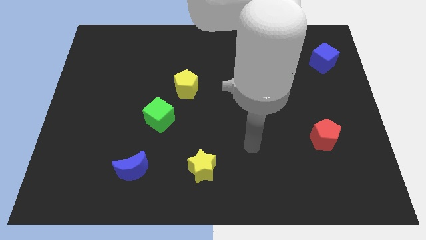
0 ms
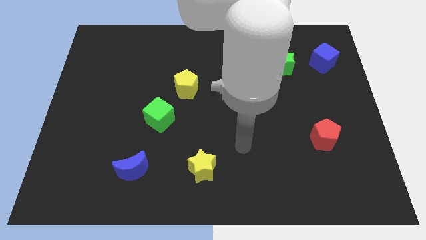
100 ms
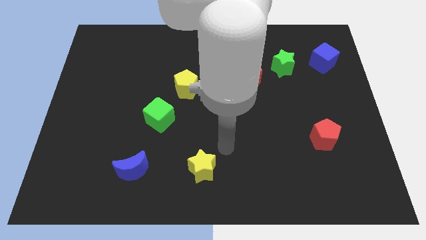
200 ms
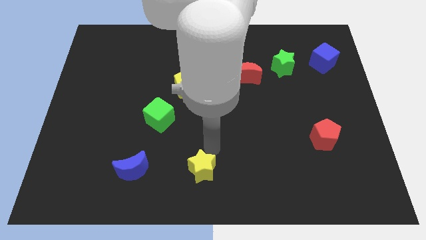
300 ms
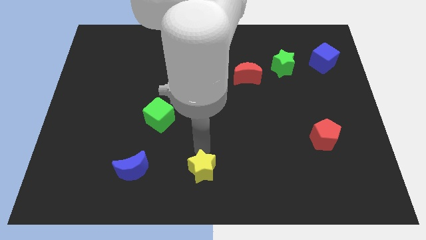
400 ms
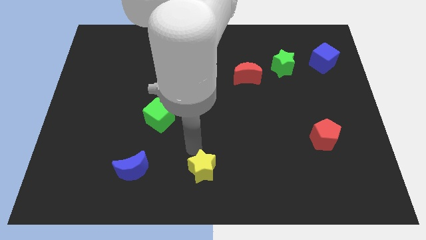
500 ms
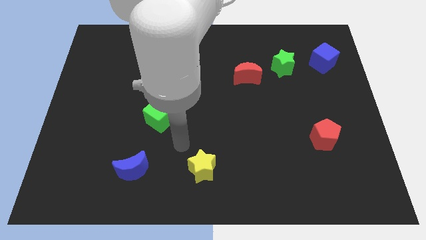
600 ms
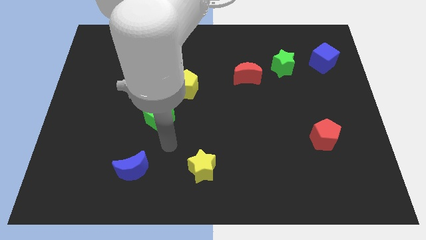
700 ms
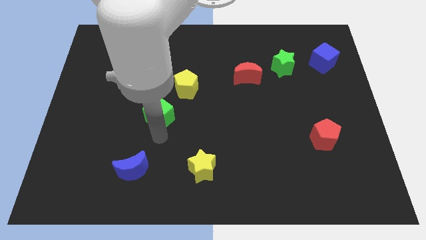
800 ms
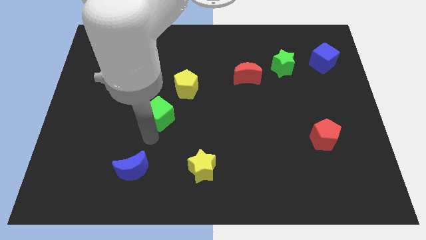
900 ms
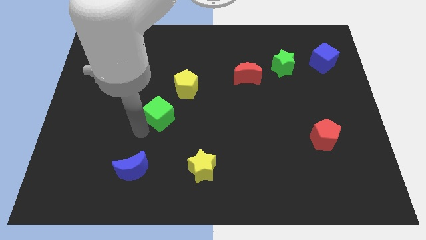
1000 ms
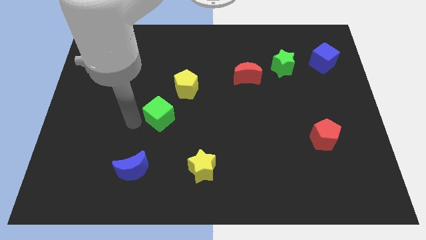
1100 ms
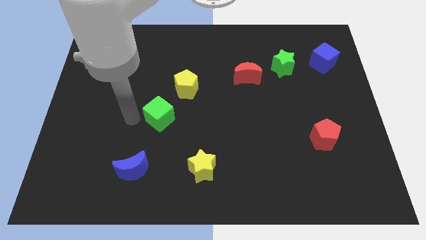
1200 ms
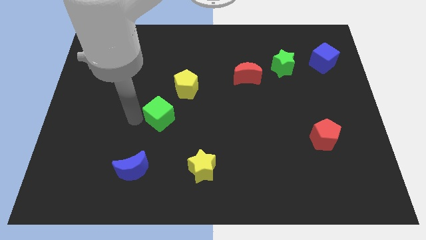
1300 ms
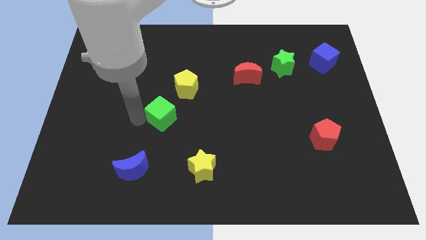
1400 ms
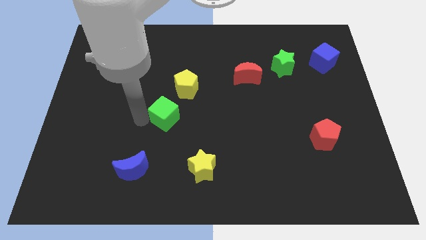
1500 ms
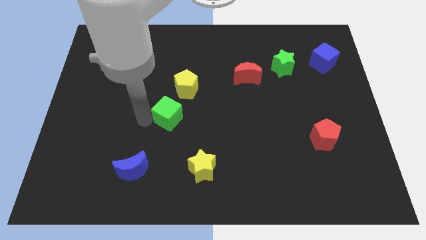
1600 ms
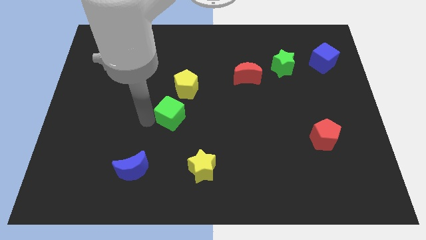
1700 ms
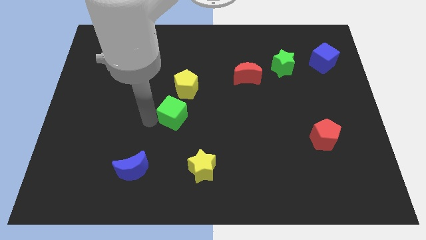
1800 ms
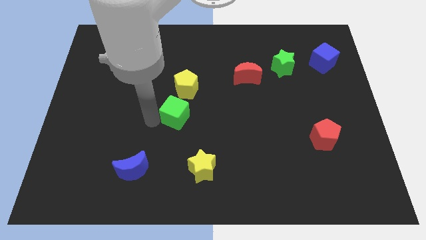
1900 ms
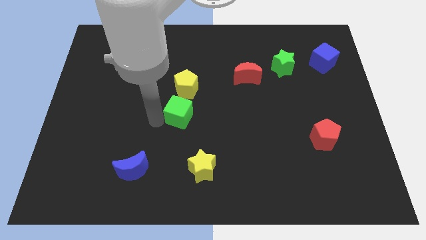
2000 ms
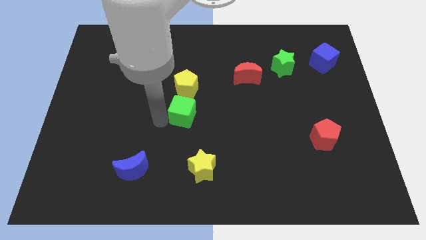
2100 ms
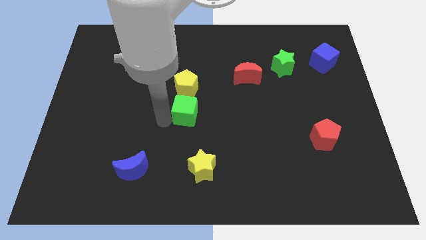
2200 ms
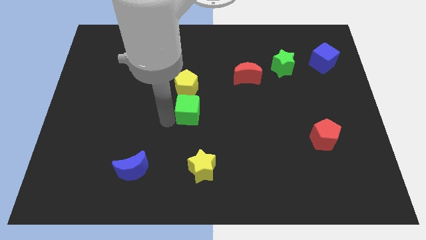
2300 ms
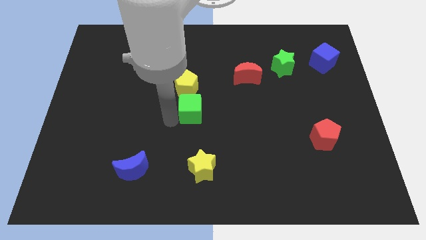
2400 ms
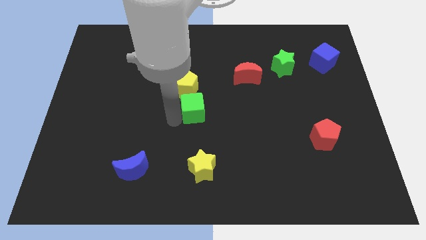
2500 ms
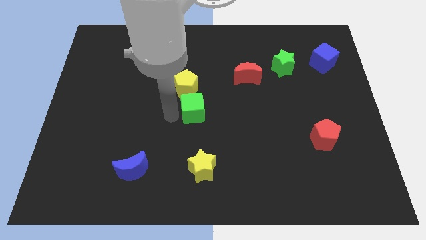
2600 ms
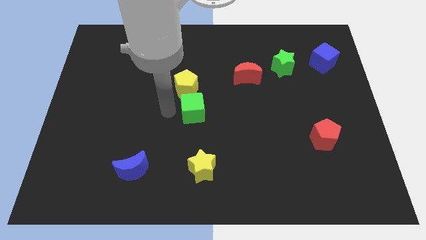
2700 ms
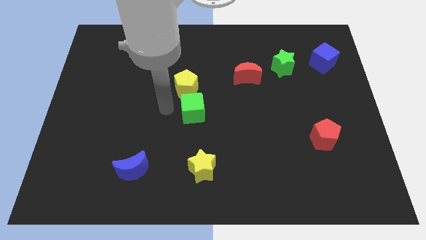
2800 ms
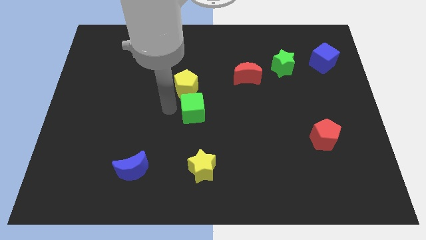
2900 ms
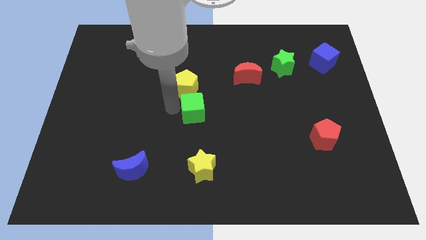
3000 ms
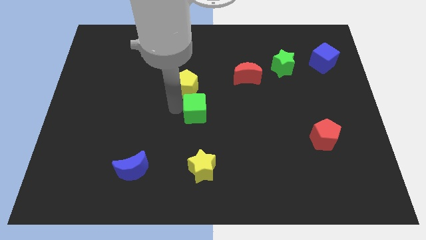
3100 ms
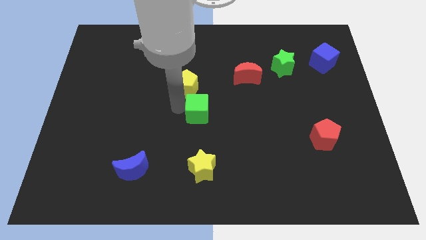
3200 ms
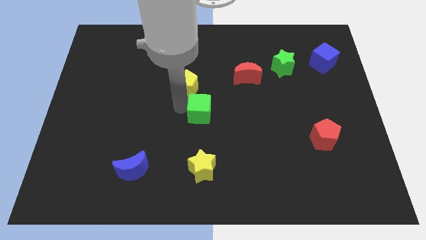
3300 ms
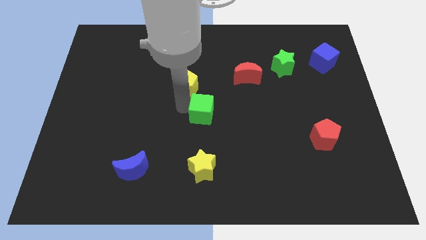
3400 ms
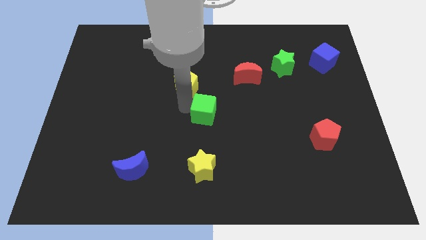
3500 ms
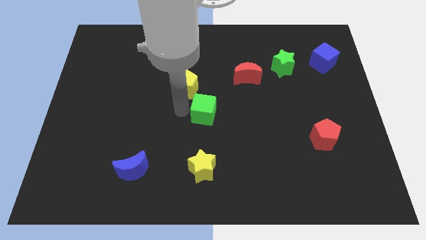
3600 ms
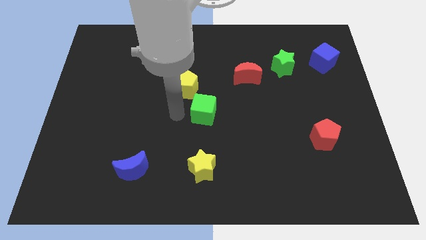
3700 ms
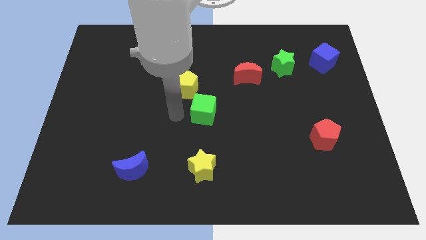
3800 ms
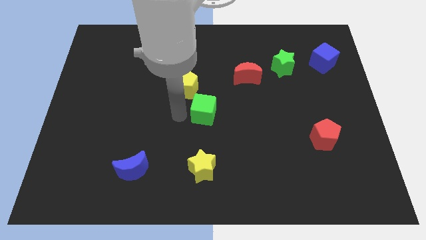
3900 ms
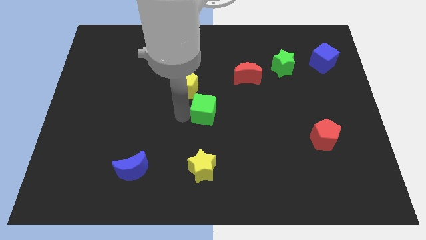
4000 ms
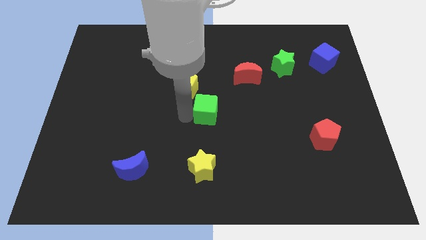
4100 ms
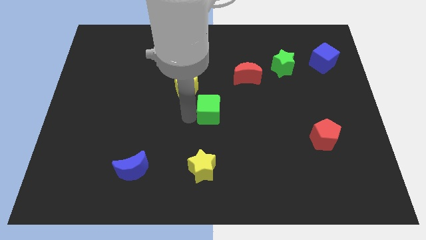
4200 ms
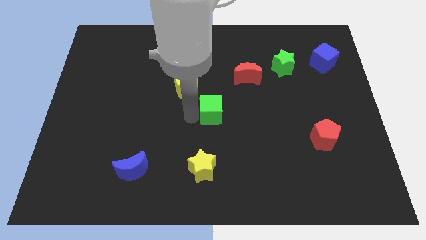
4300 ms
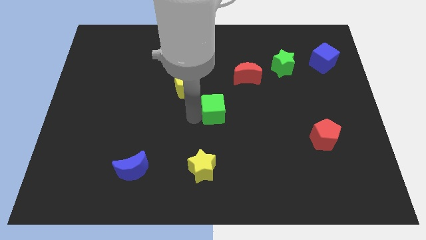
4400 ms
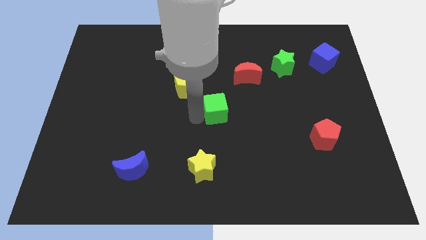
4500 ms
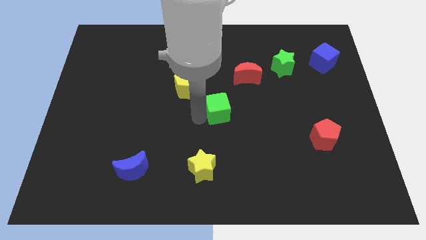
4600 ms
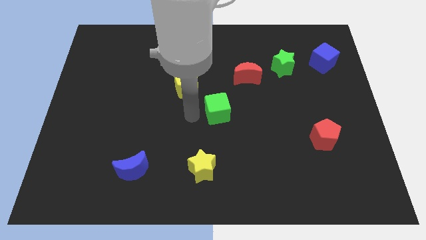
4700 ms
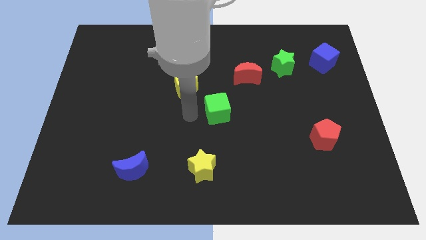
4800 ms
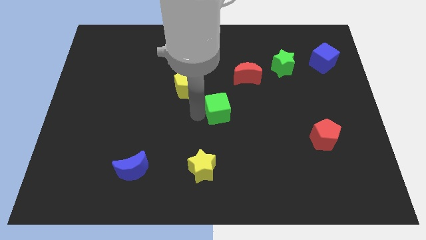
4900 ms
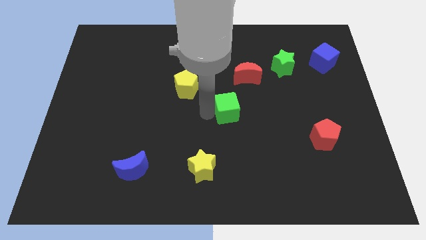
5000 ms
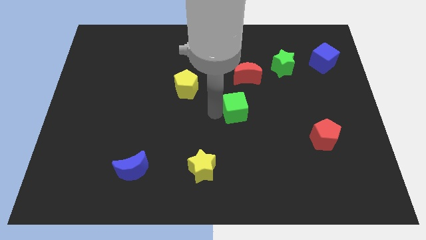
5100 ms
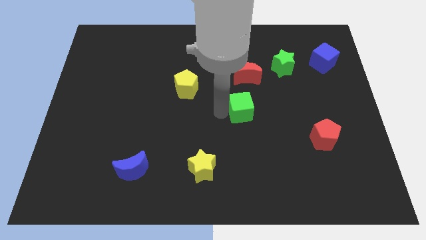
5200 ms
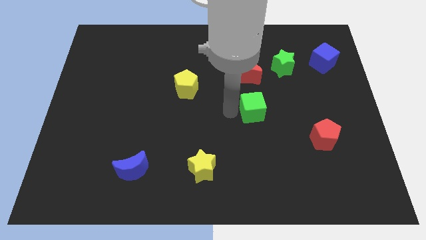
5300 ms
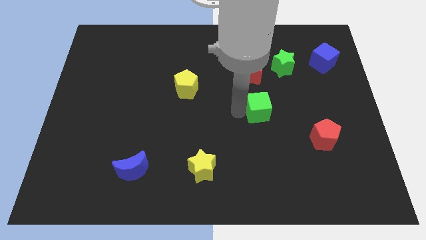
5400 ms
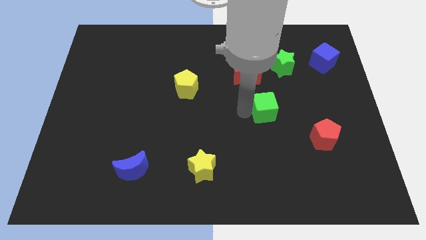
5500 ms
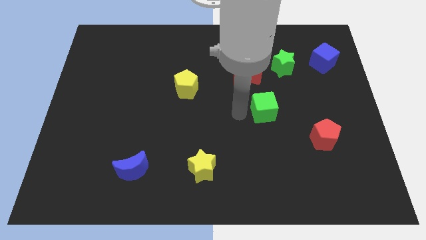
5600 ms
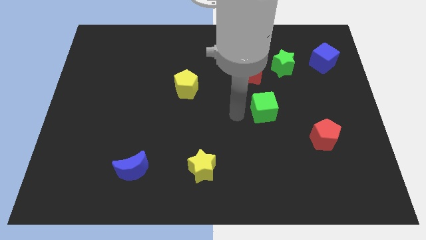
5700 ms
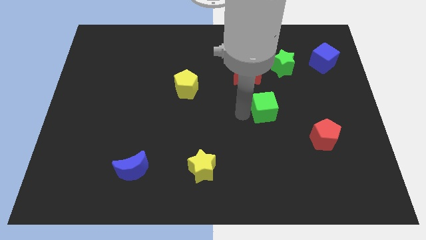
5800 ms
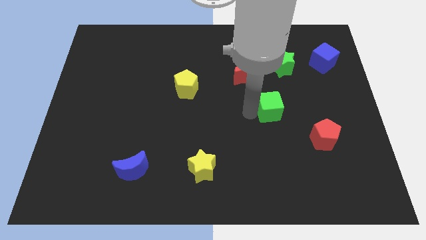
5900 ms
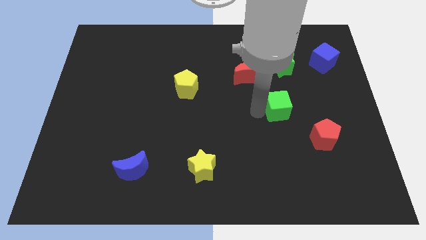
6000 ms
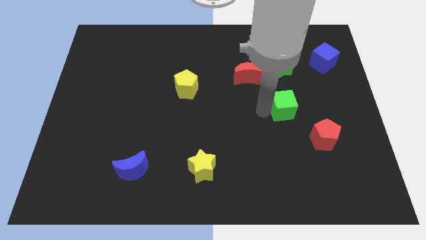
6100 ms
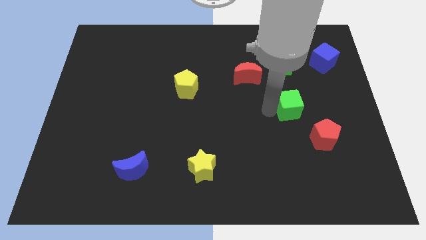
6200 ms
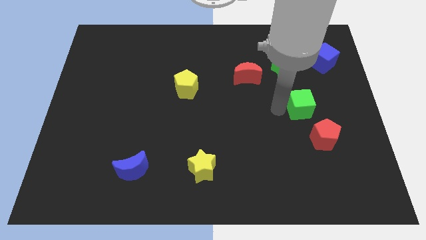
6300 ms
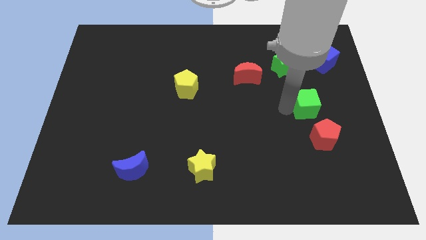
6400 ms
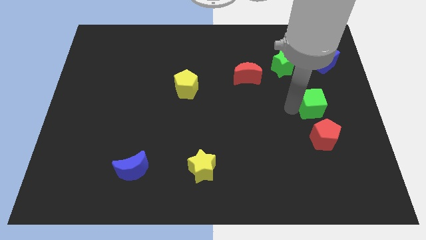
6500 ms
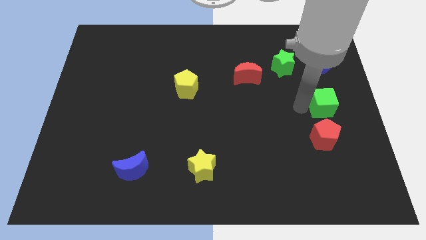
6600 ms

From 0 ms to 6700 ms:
slide the green cube to the right side of the board
